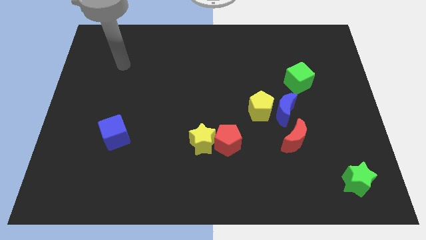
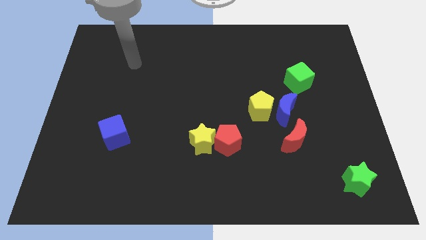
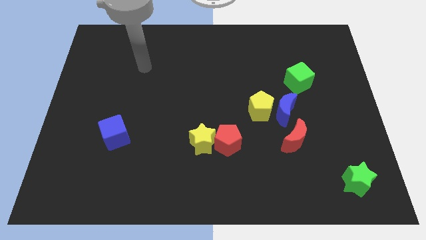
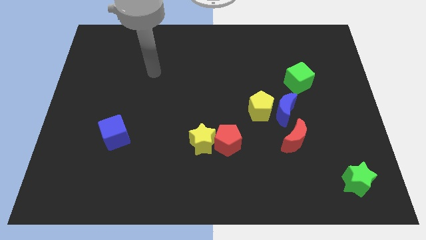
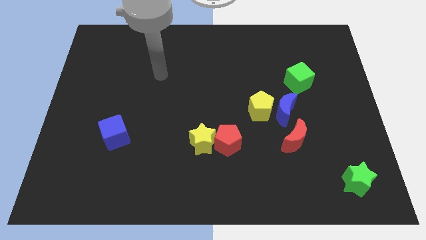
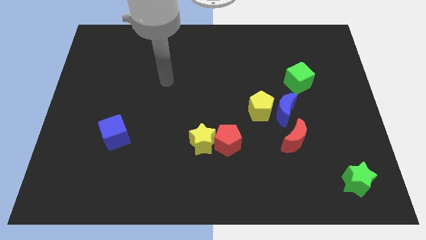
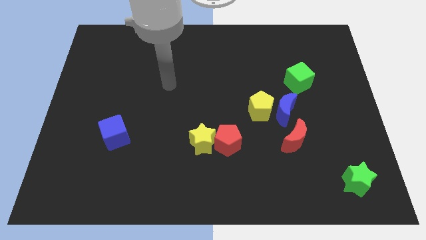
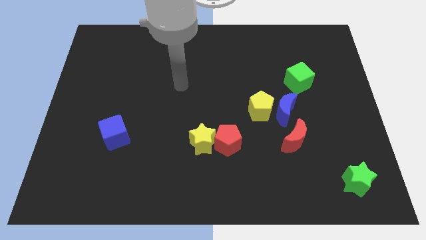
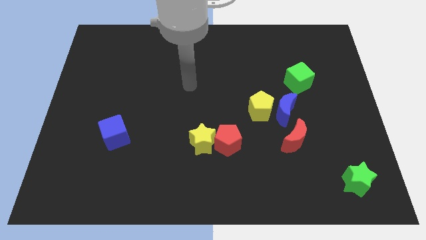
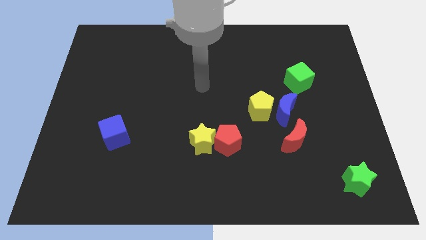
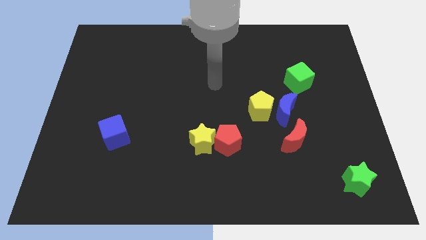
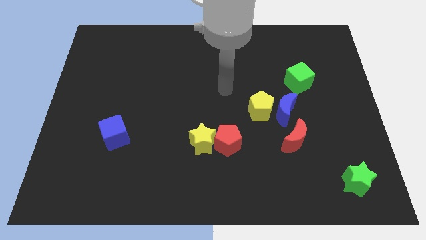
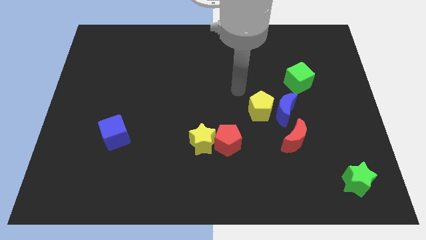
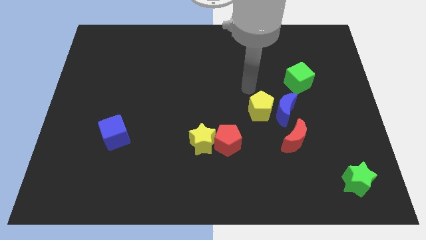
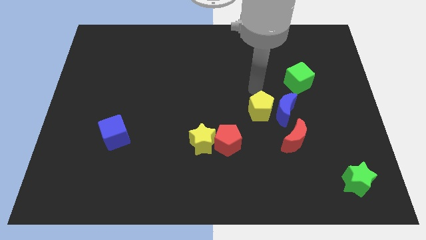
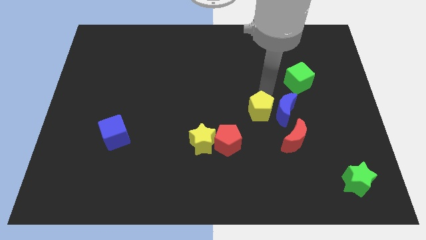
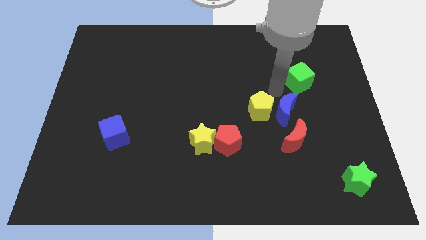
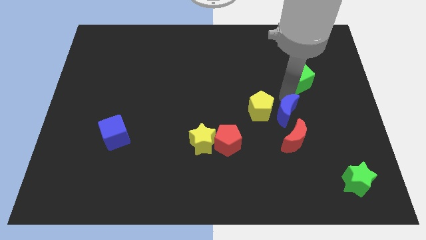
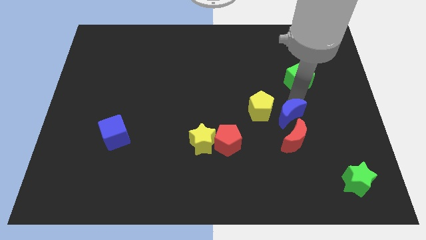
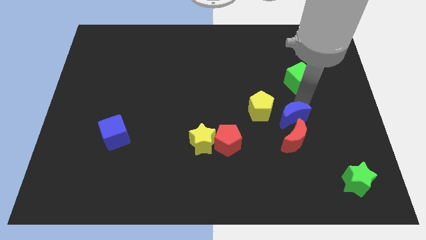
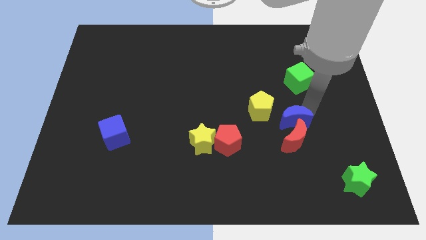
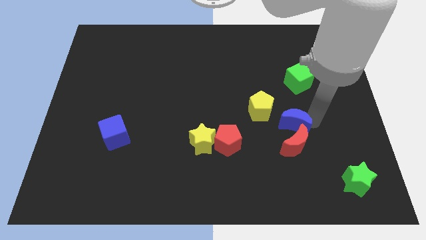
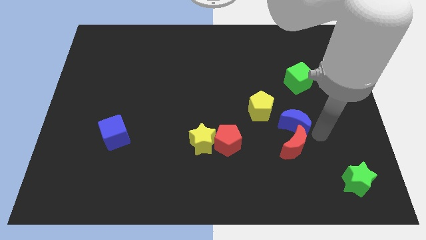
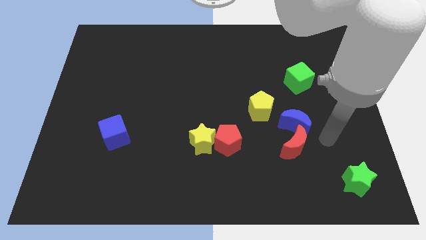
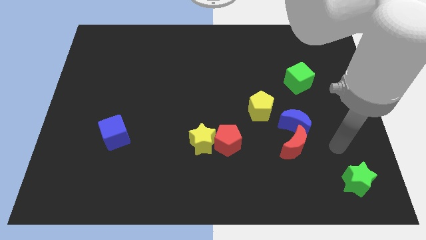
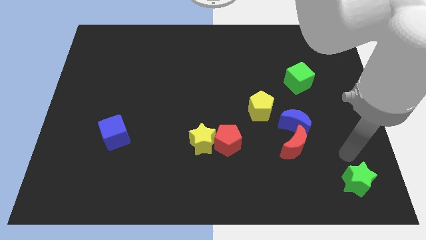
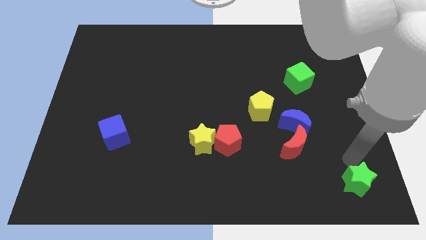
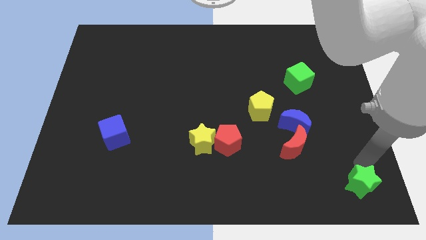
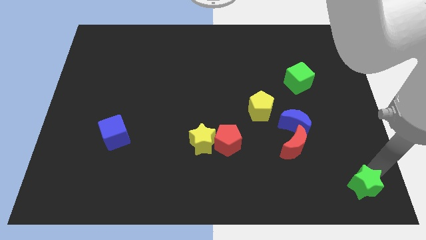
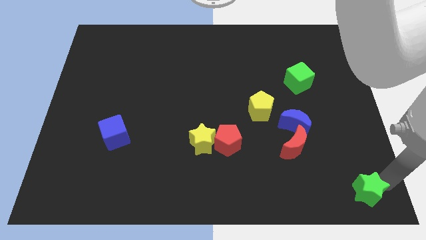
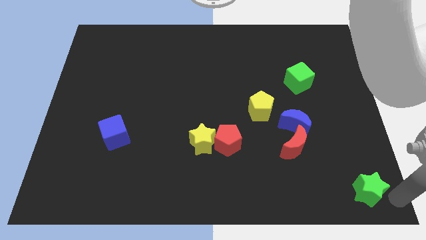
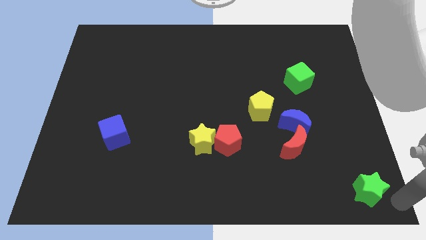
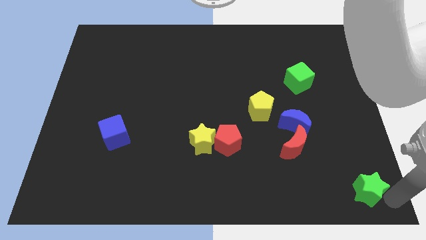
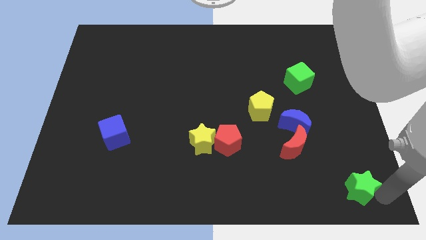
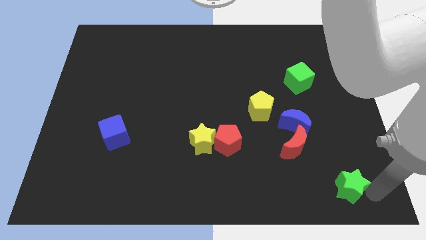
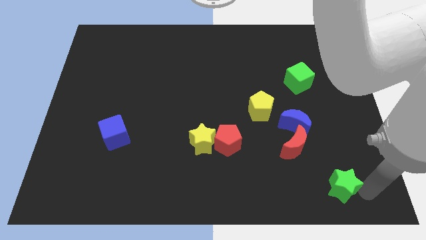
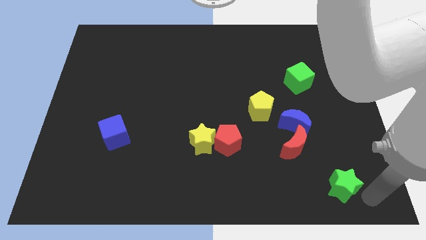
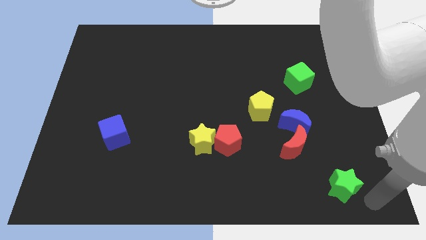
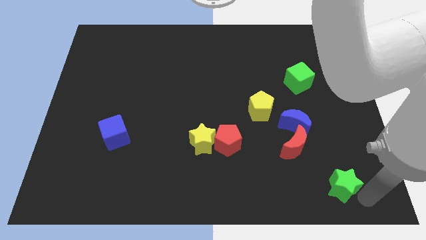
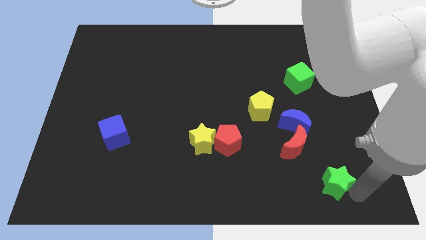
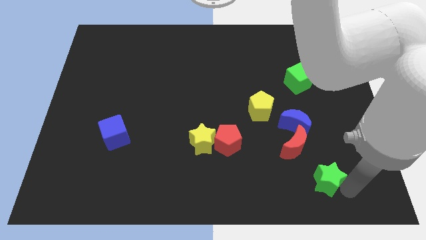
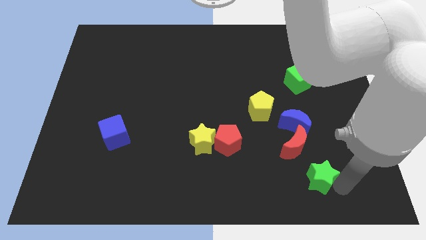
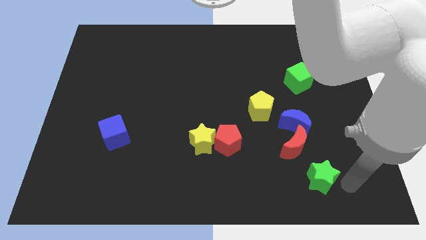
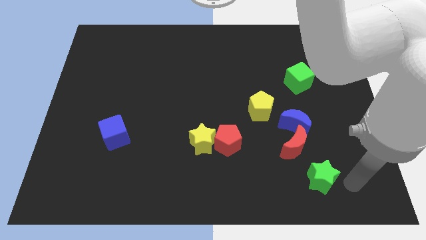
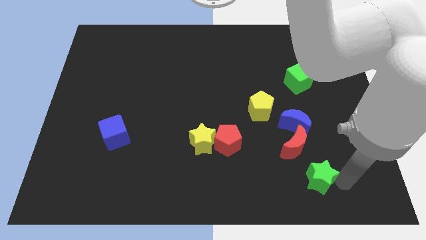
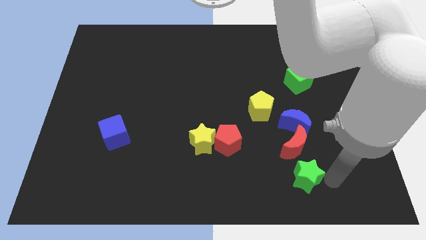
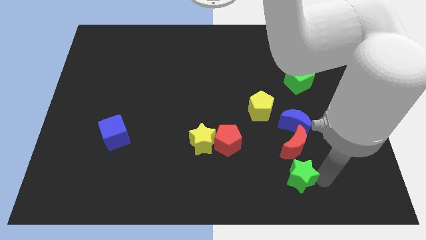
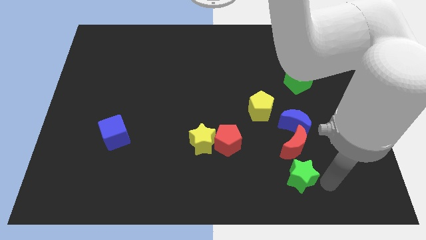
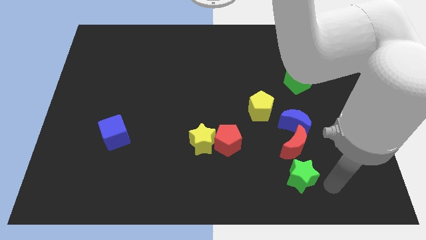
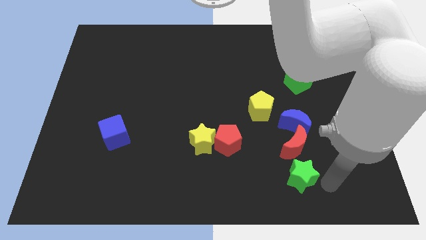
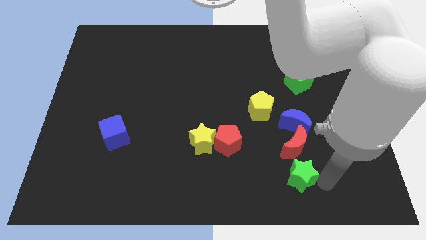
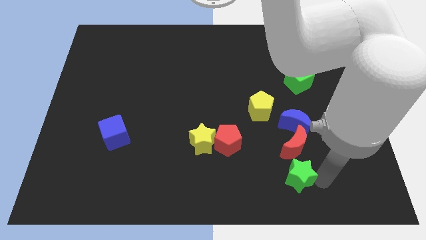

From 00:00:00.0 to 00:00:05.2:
push the green star to the bottom left side of the red moon
